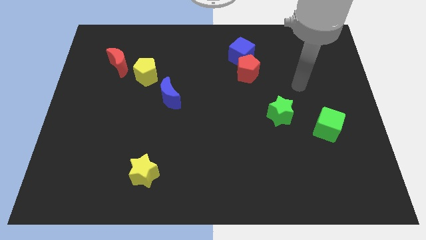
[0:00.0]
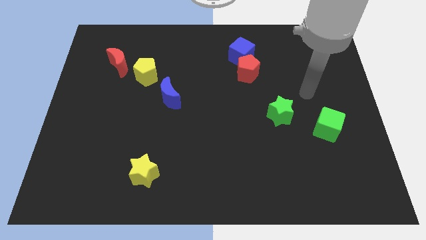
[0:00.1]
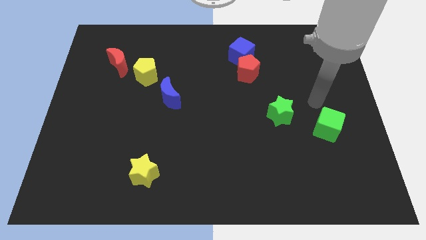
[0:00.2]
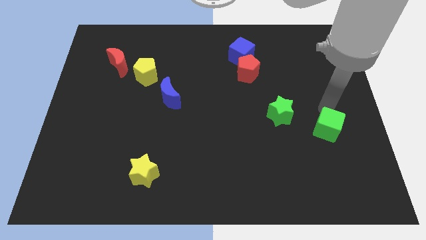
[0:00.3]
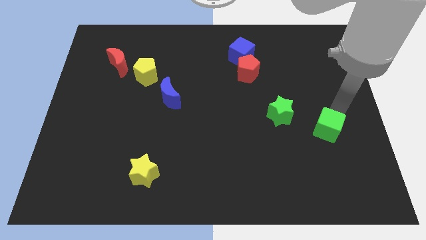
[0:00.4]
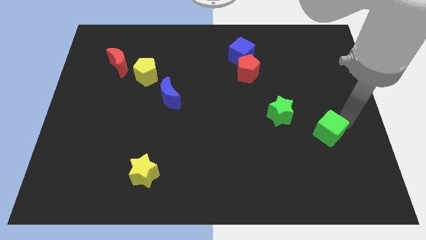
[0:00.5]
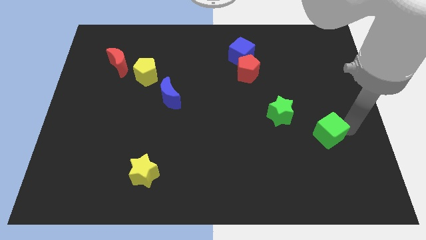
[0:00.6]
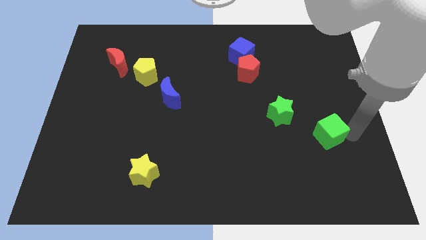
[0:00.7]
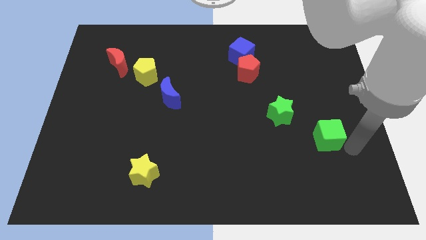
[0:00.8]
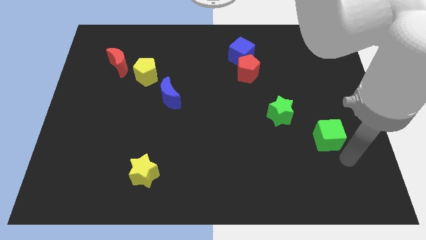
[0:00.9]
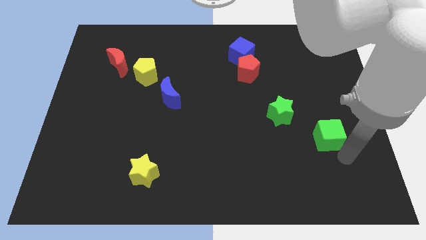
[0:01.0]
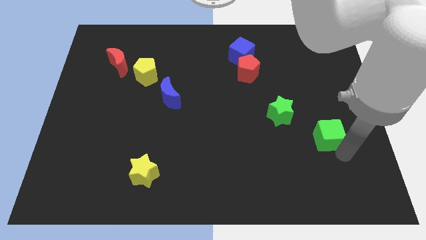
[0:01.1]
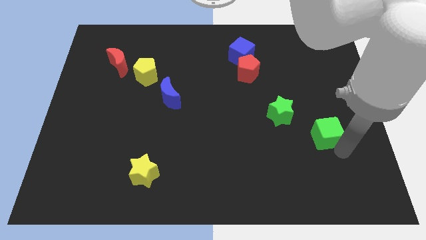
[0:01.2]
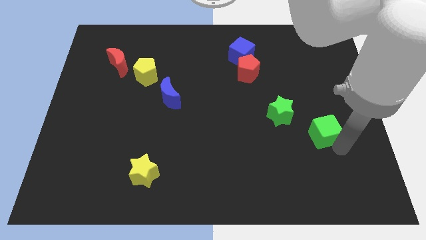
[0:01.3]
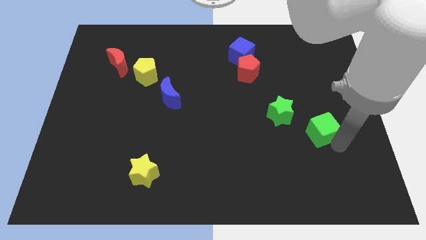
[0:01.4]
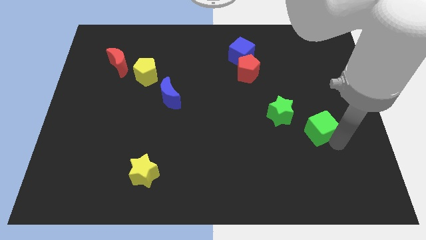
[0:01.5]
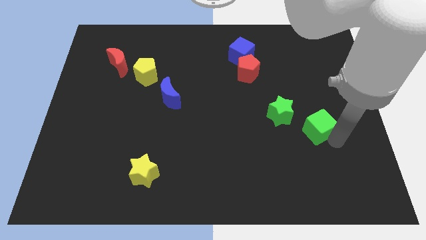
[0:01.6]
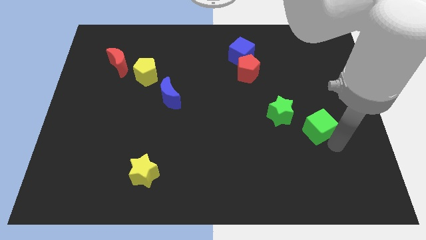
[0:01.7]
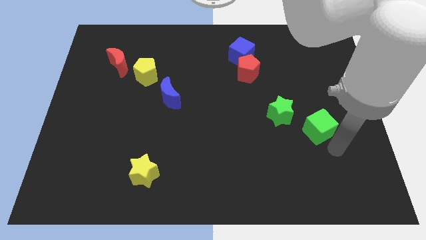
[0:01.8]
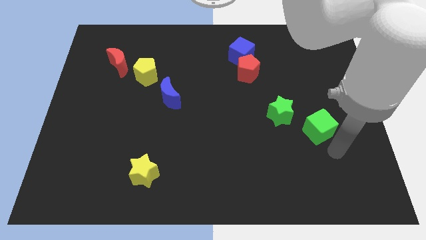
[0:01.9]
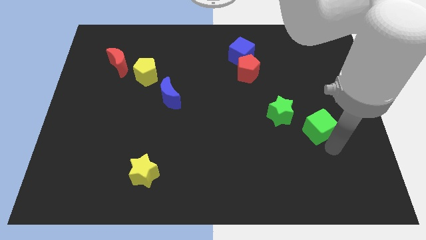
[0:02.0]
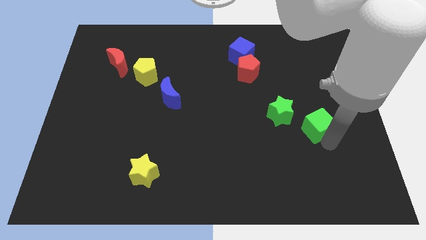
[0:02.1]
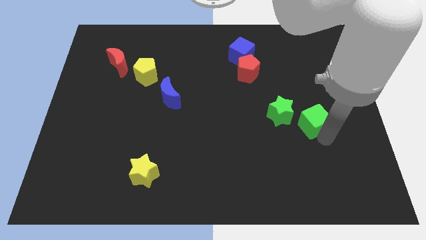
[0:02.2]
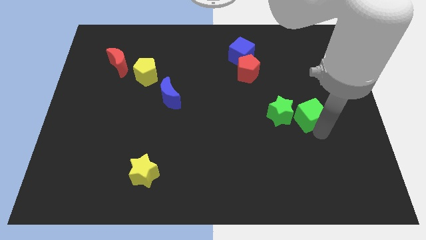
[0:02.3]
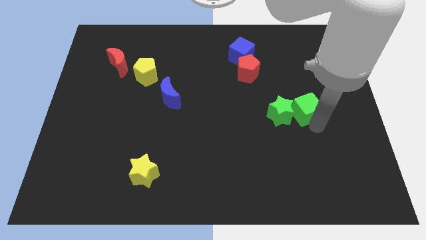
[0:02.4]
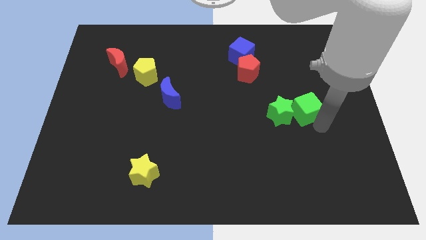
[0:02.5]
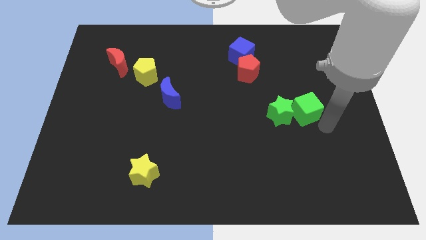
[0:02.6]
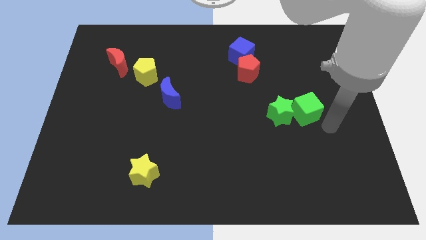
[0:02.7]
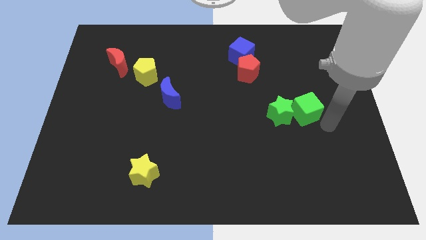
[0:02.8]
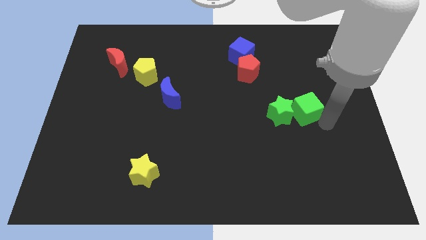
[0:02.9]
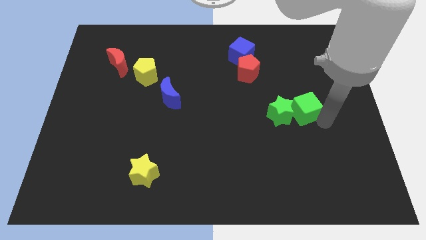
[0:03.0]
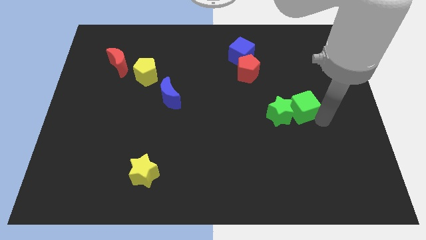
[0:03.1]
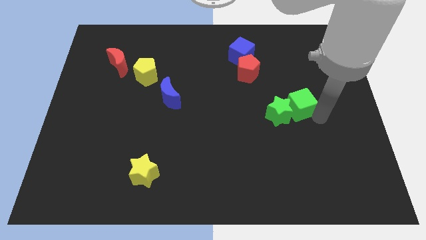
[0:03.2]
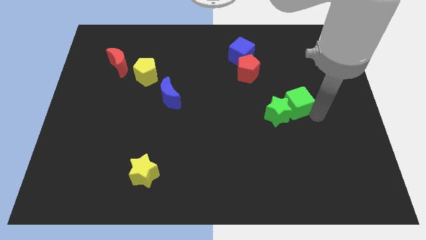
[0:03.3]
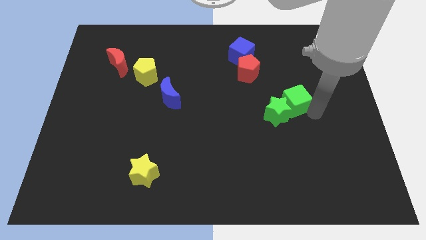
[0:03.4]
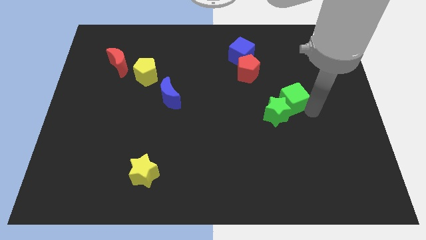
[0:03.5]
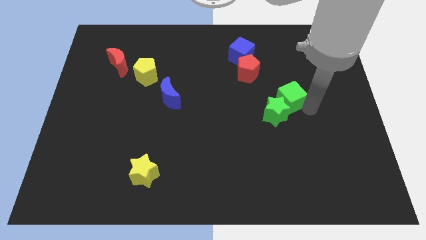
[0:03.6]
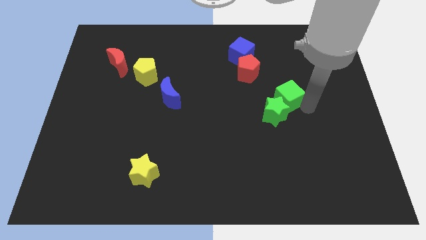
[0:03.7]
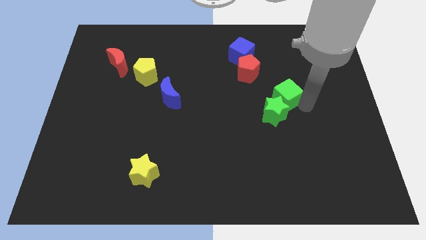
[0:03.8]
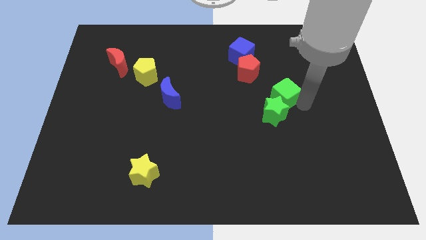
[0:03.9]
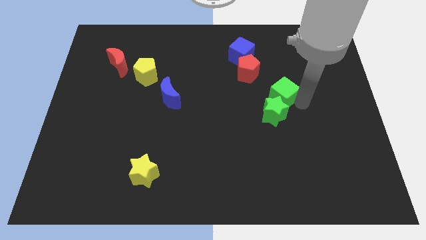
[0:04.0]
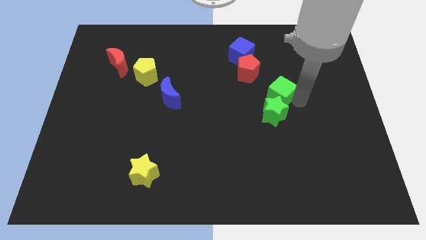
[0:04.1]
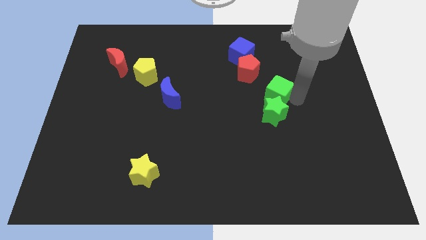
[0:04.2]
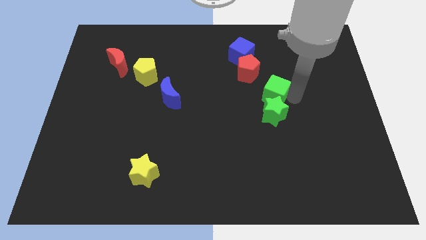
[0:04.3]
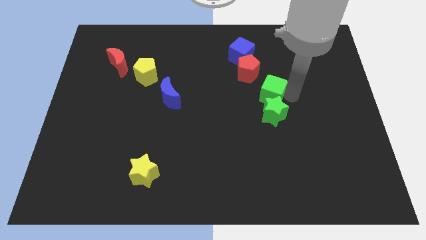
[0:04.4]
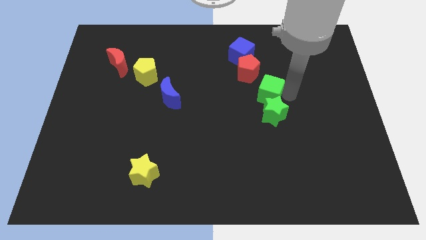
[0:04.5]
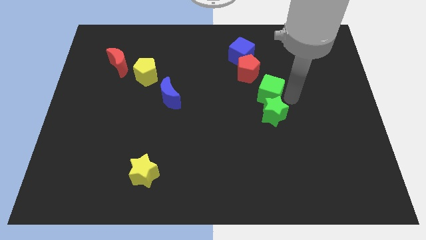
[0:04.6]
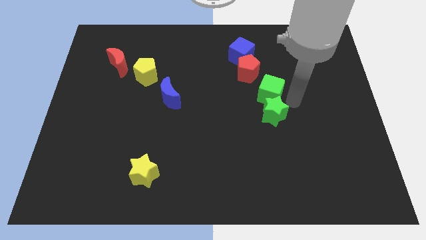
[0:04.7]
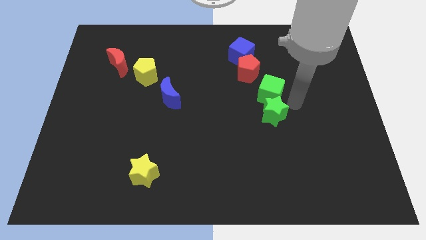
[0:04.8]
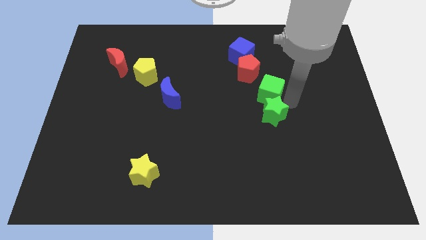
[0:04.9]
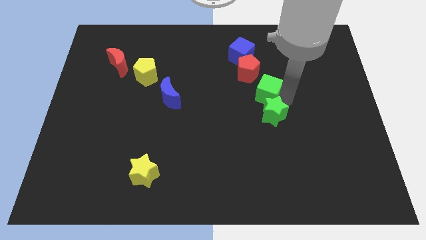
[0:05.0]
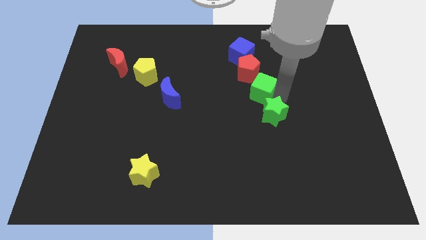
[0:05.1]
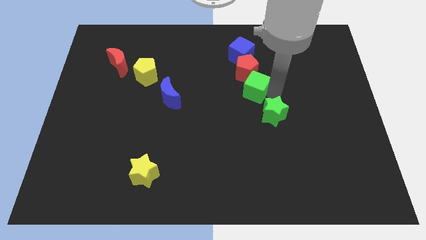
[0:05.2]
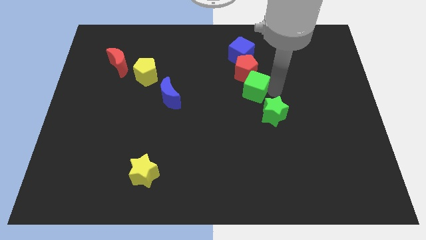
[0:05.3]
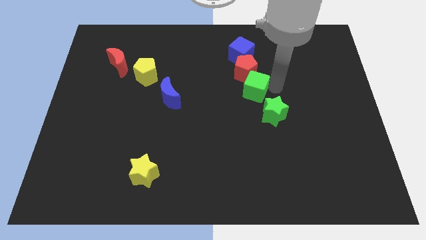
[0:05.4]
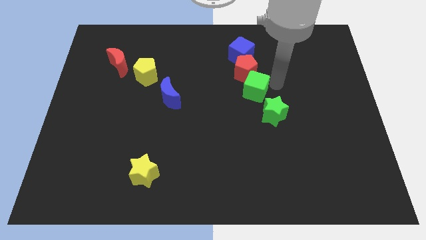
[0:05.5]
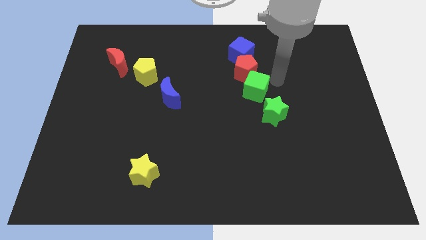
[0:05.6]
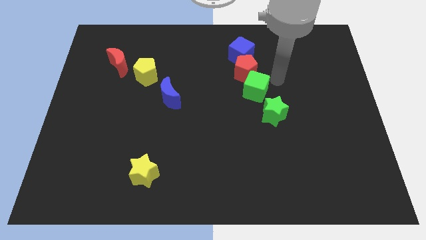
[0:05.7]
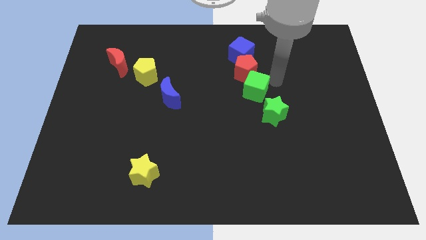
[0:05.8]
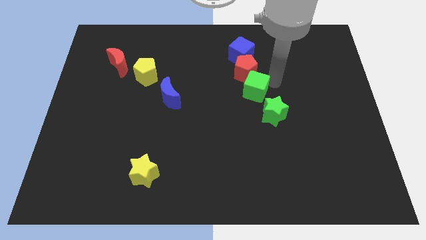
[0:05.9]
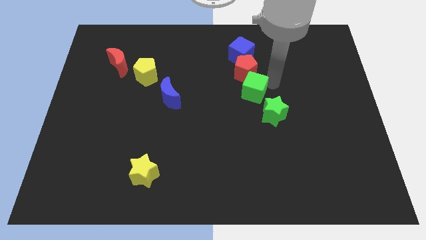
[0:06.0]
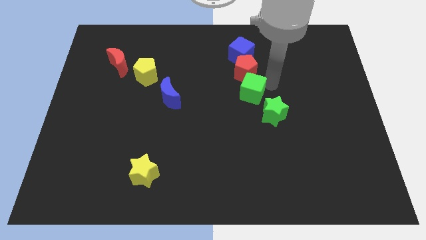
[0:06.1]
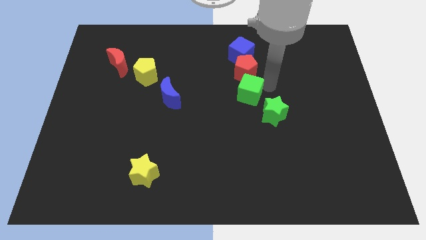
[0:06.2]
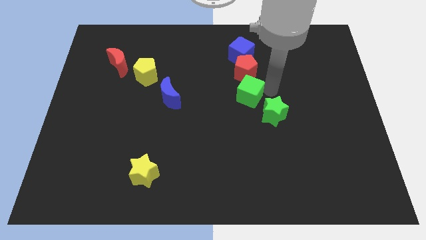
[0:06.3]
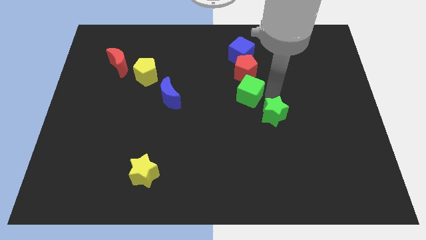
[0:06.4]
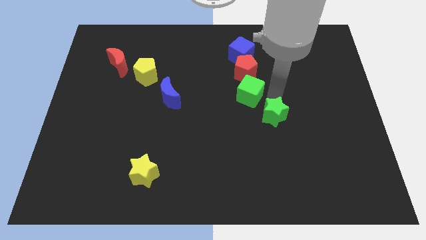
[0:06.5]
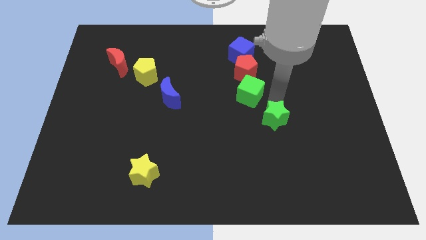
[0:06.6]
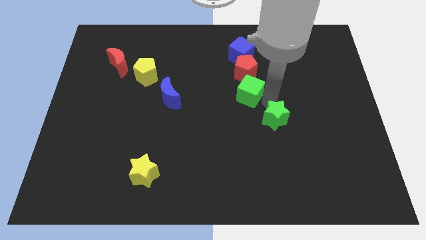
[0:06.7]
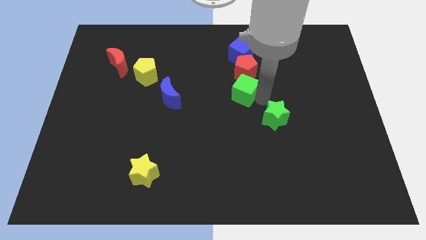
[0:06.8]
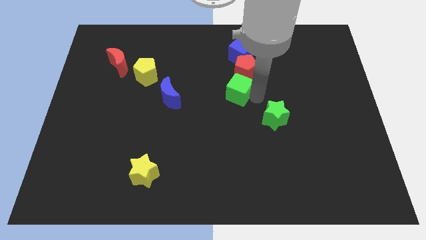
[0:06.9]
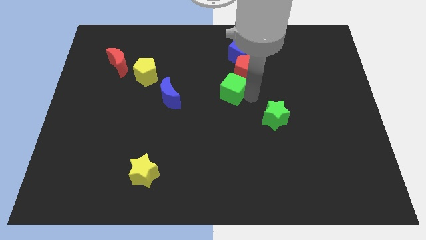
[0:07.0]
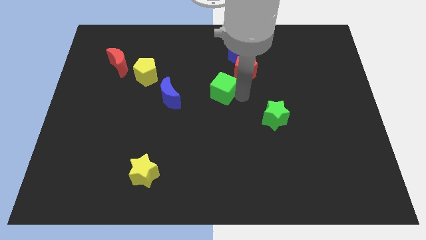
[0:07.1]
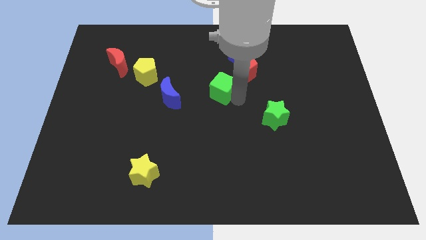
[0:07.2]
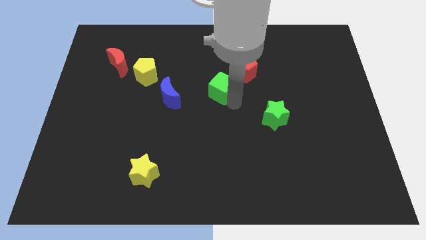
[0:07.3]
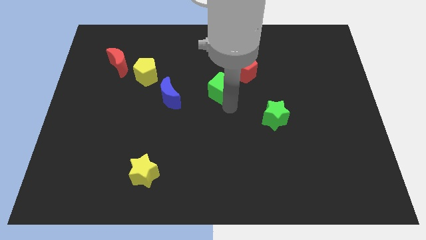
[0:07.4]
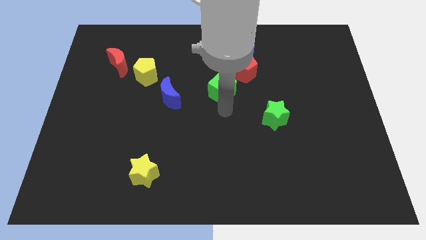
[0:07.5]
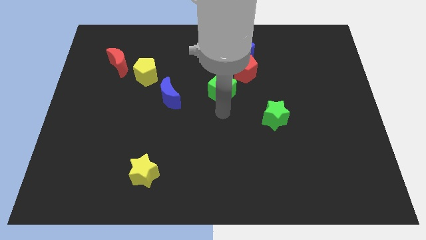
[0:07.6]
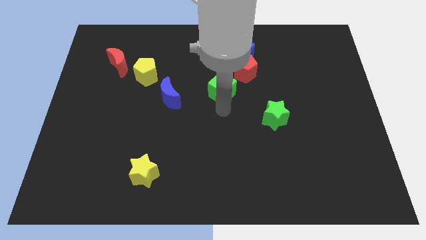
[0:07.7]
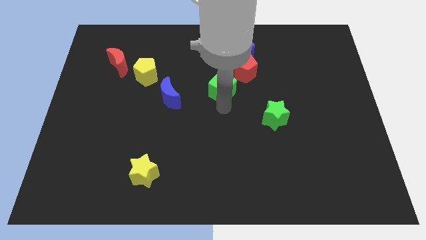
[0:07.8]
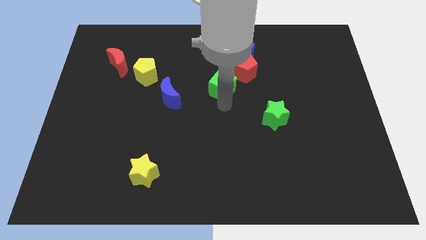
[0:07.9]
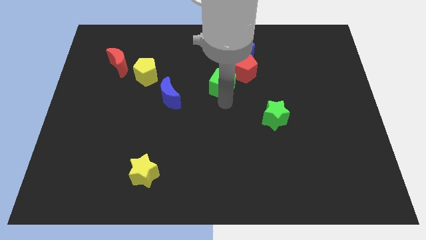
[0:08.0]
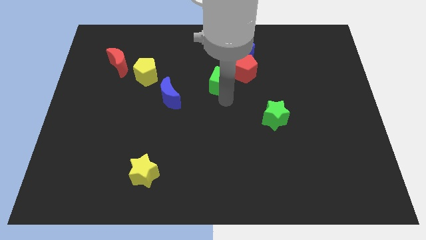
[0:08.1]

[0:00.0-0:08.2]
slide the green cube to the bottom left of the blue cube
